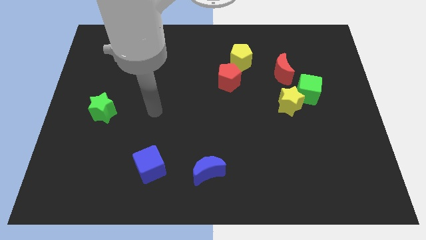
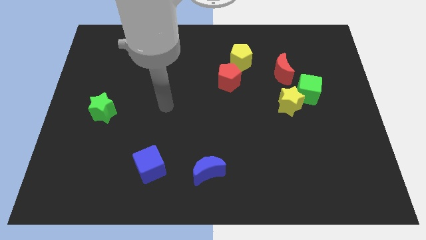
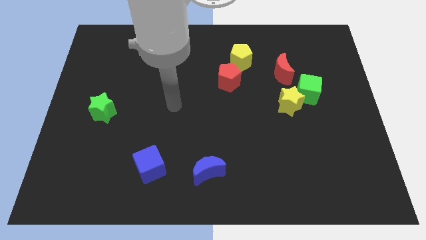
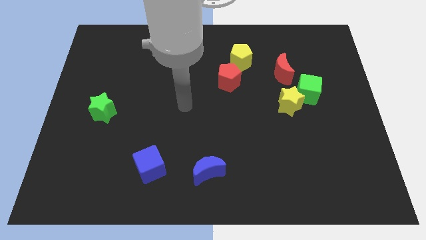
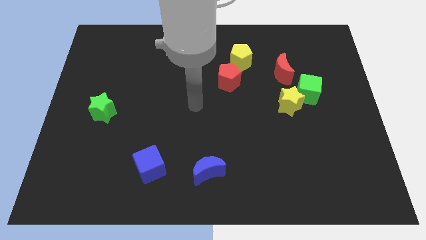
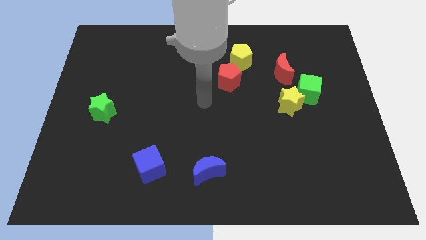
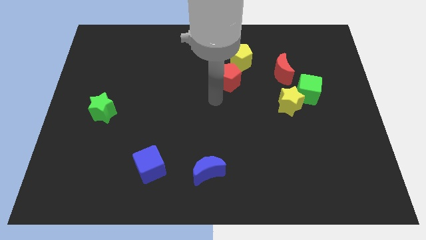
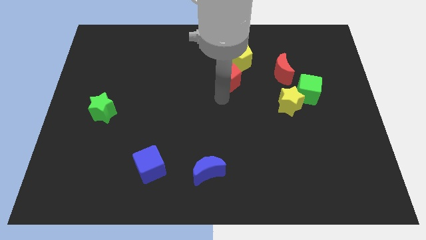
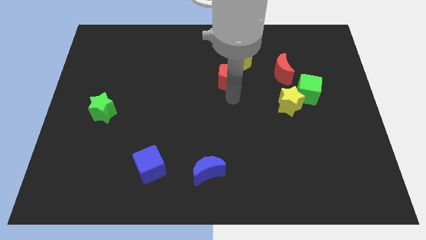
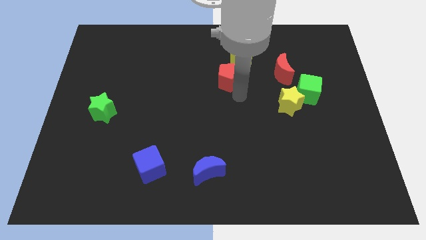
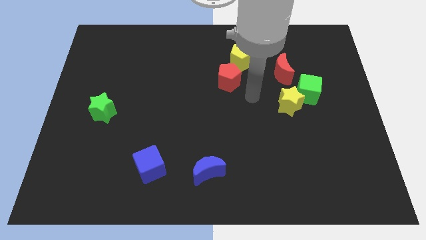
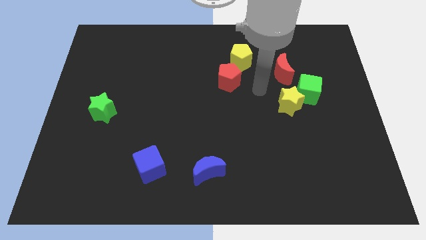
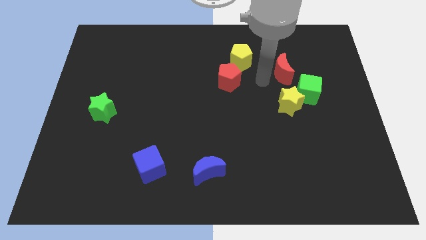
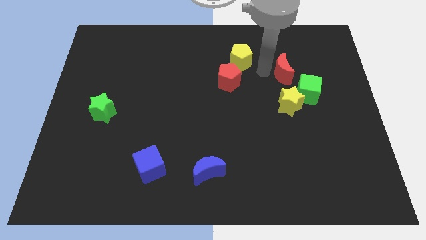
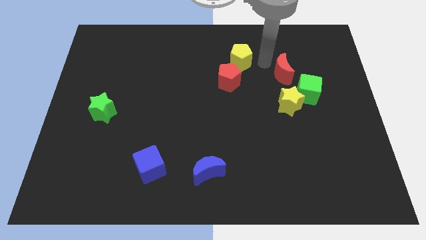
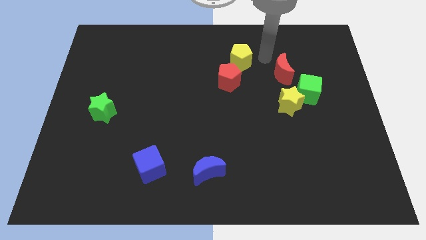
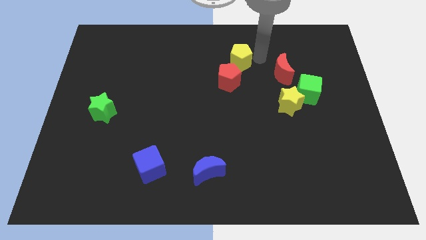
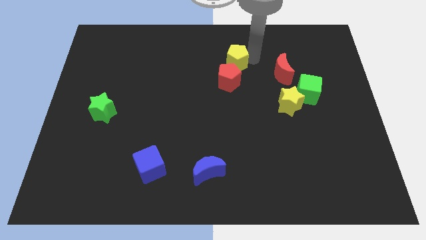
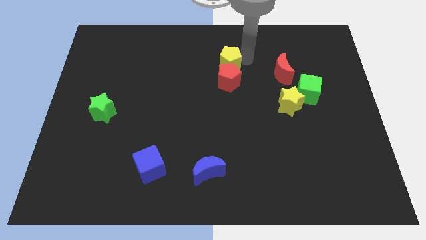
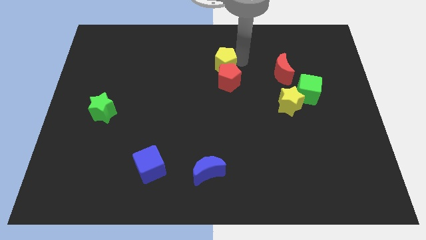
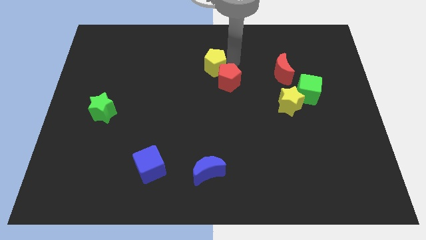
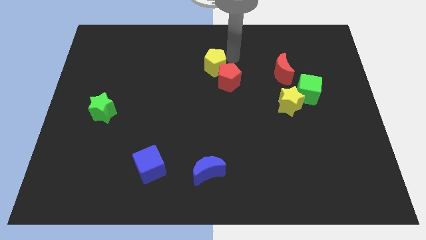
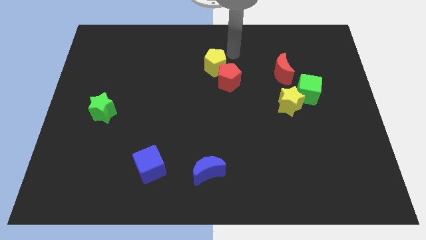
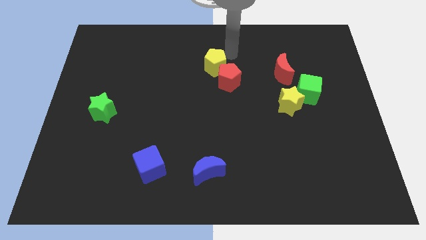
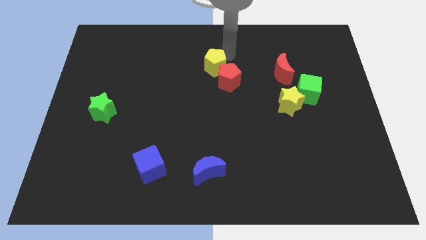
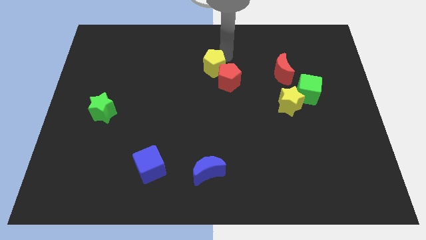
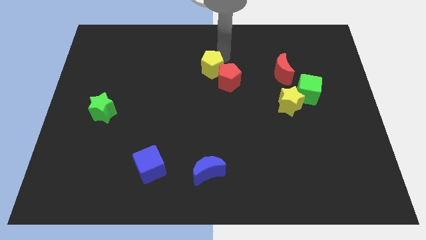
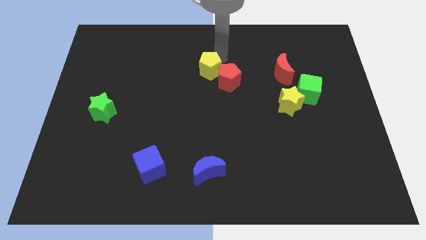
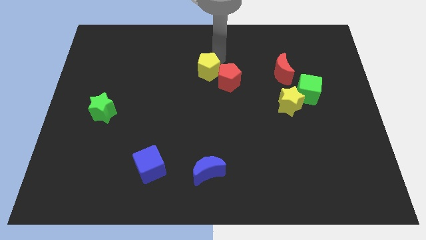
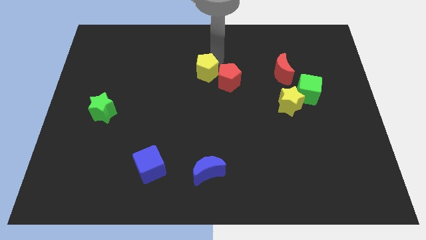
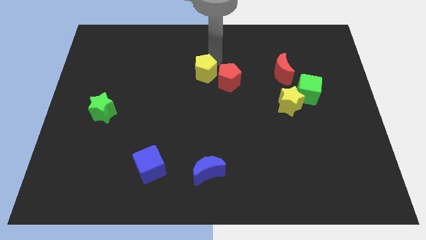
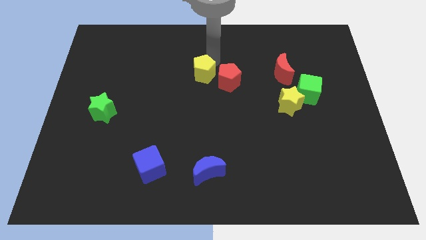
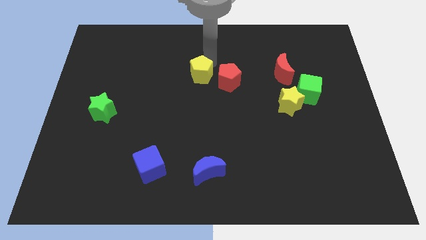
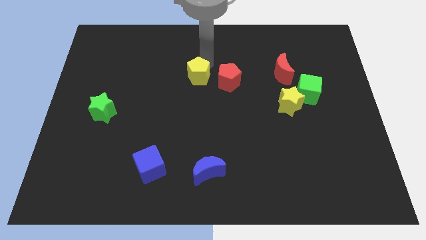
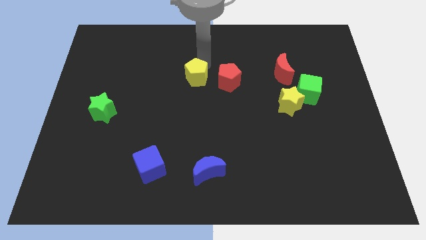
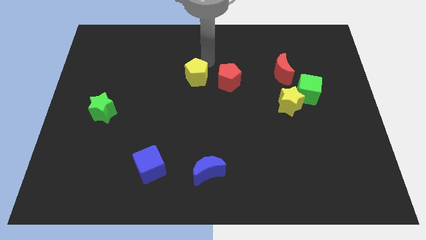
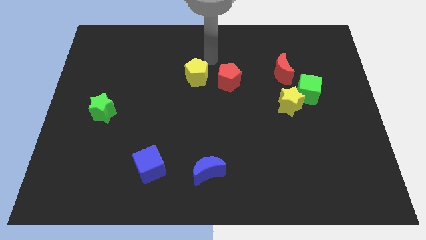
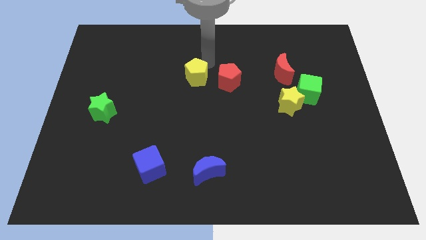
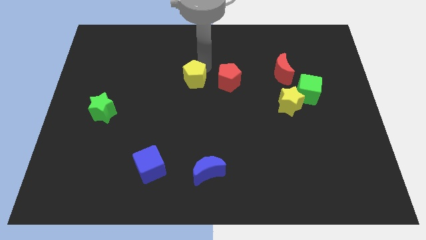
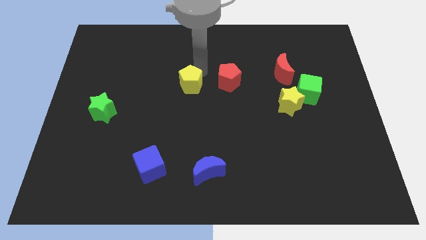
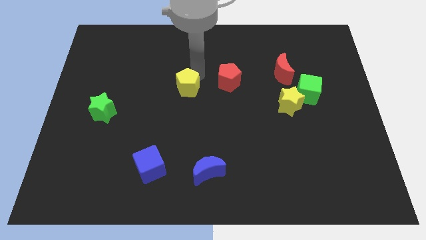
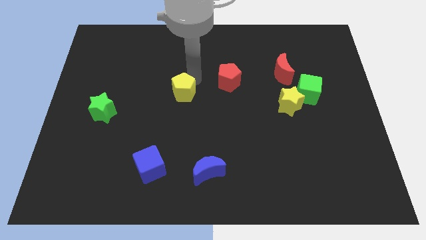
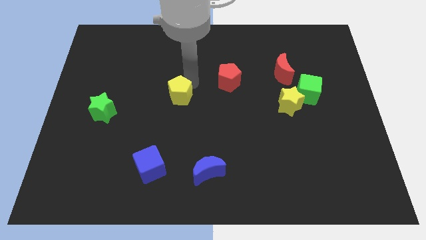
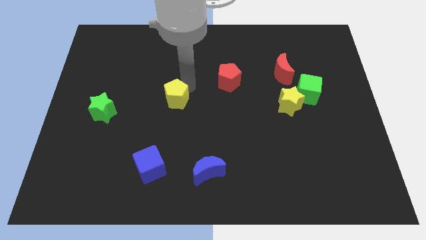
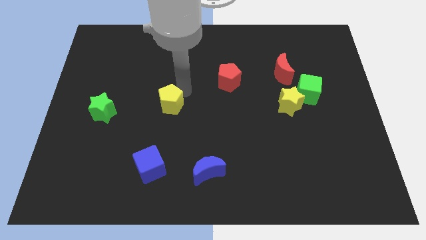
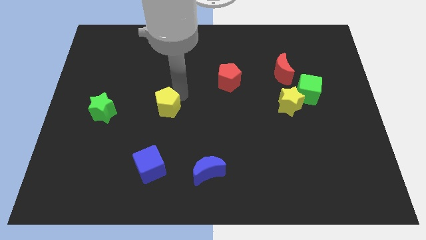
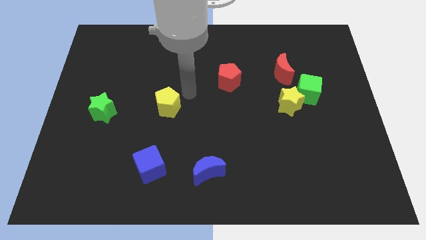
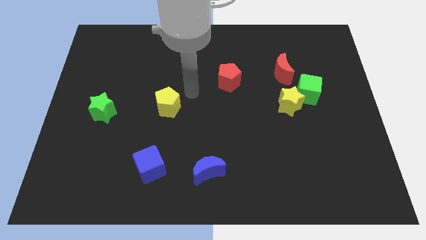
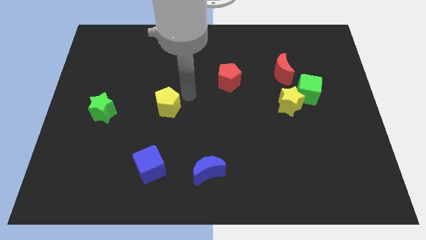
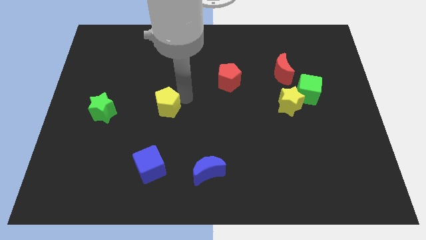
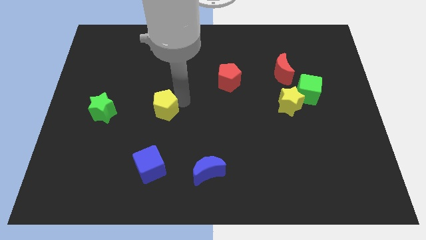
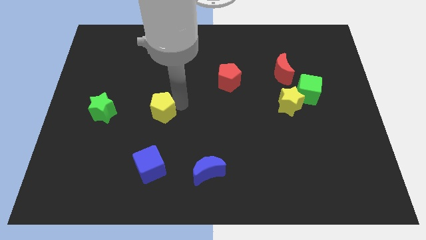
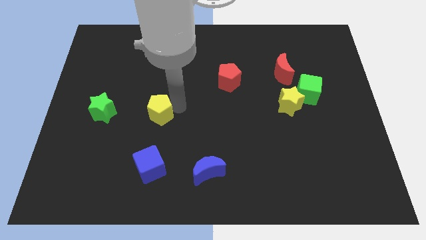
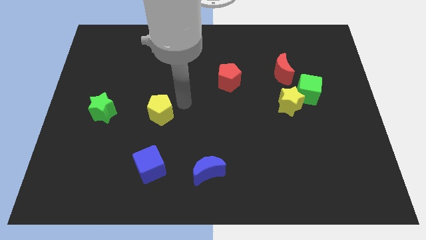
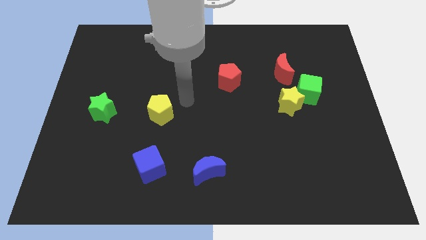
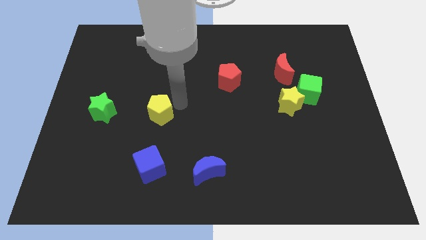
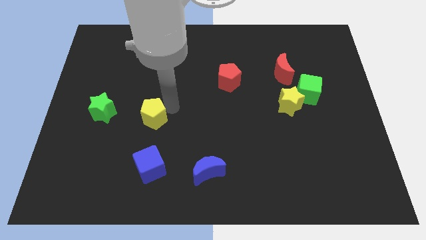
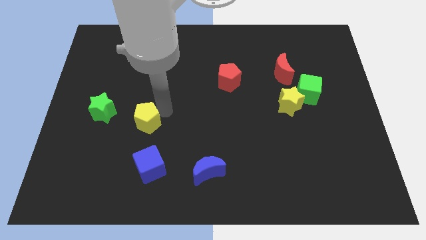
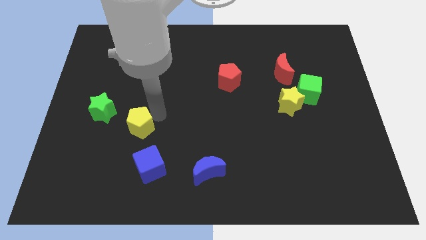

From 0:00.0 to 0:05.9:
slide the yellow pentagon to the bottom right side of the green star

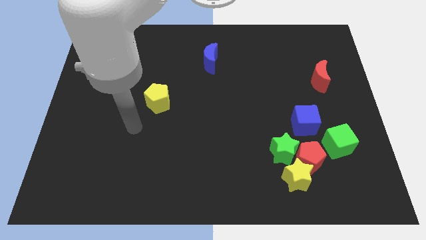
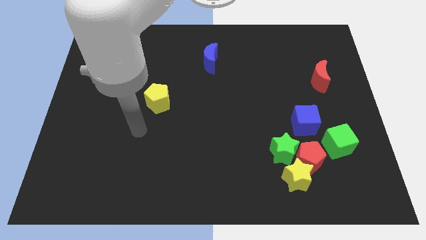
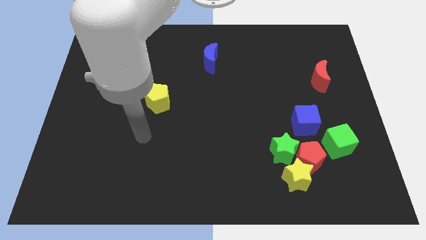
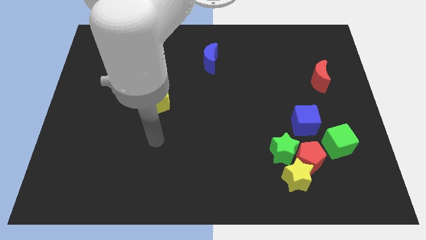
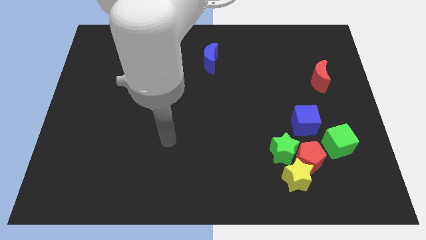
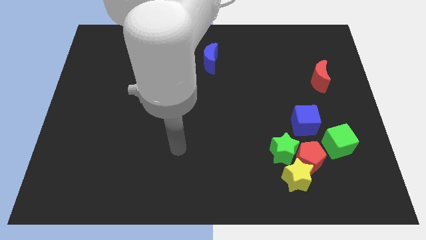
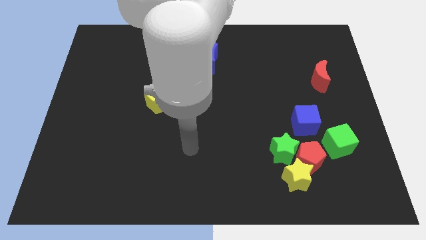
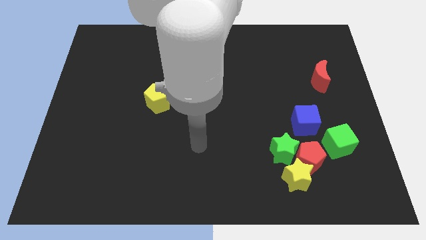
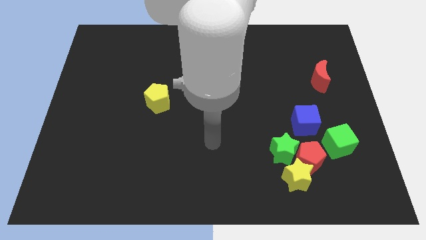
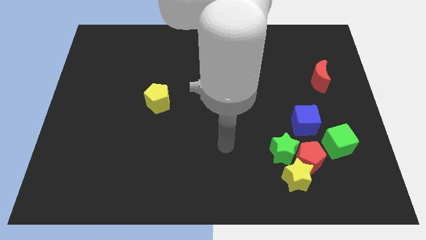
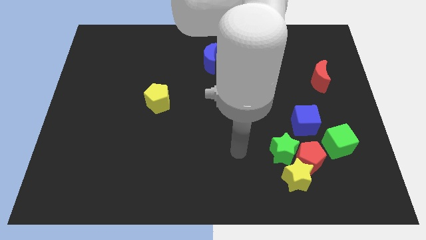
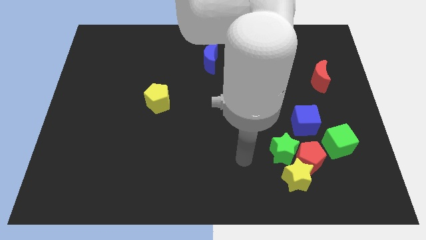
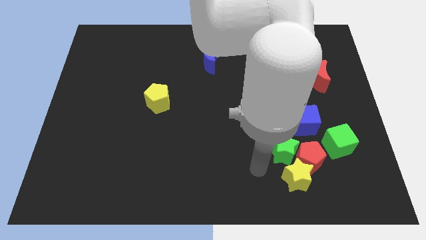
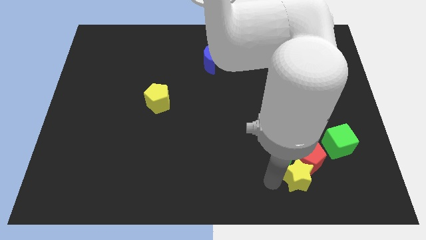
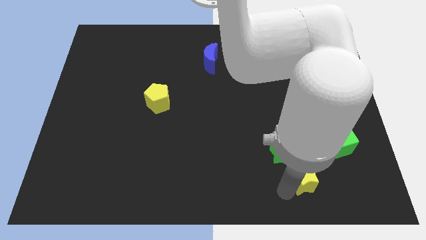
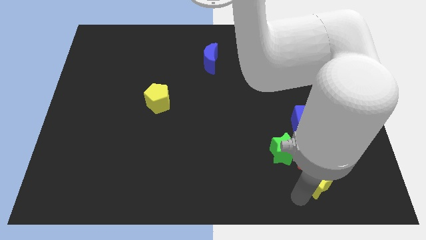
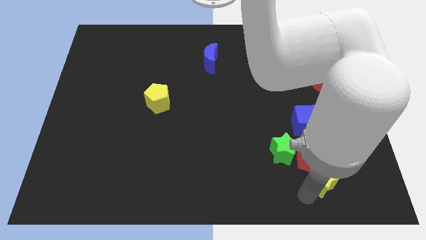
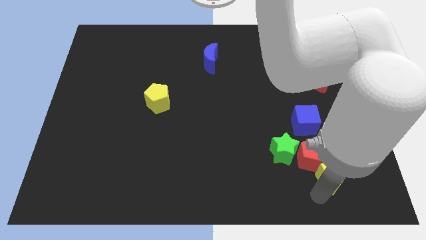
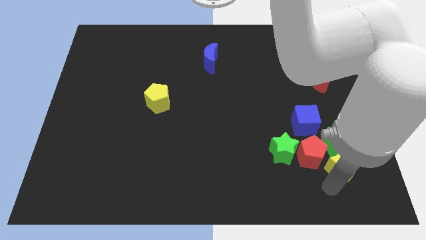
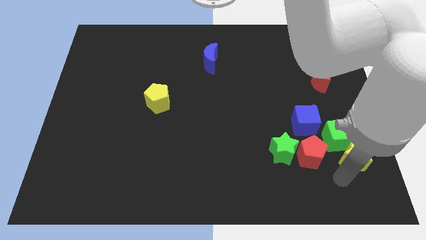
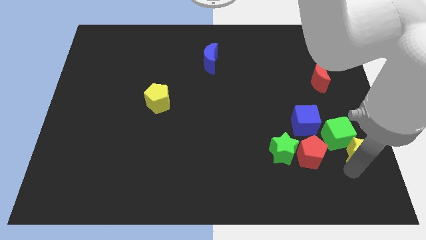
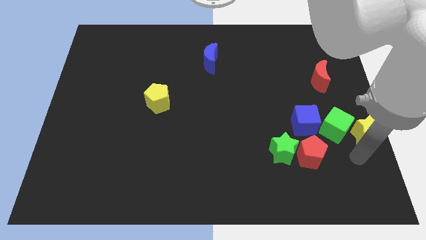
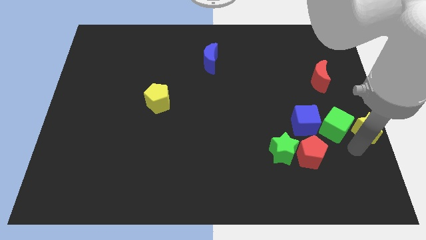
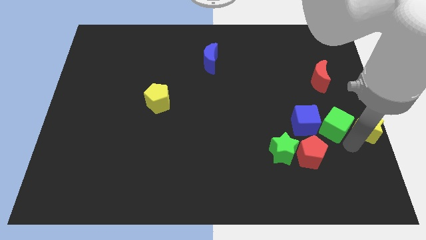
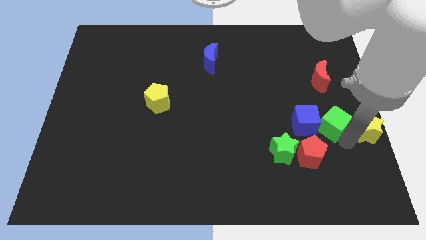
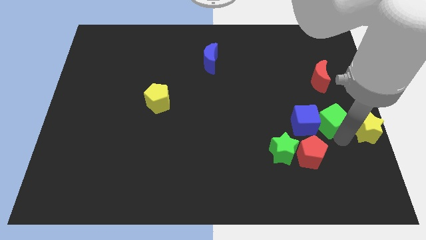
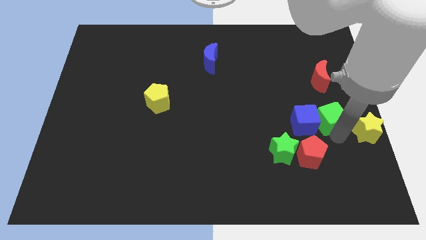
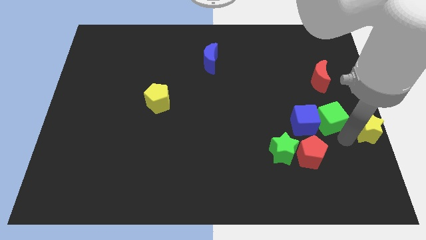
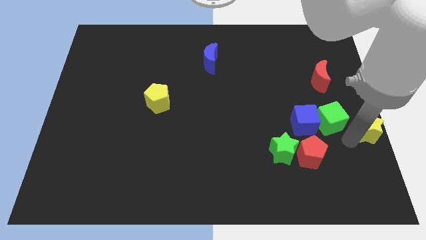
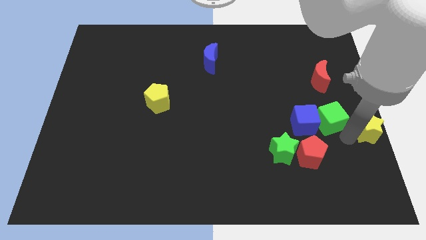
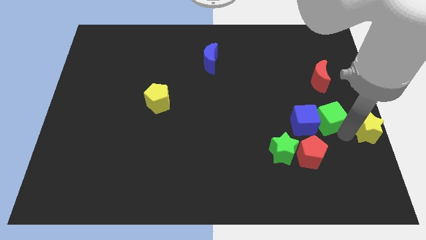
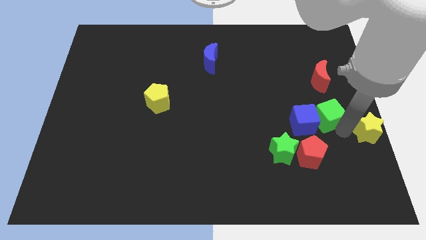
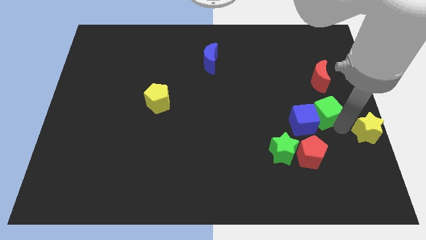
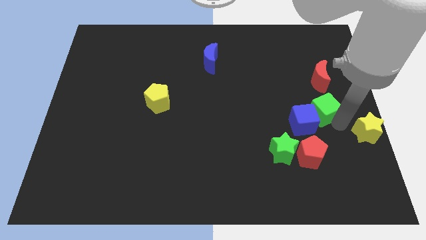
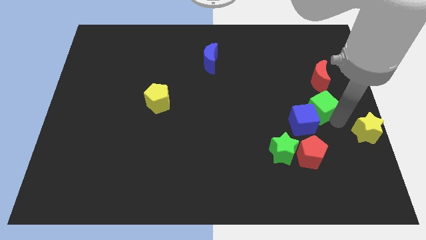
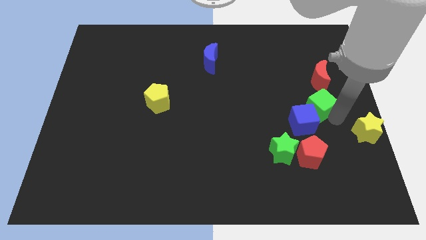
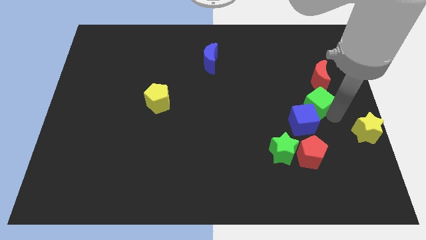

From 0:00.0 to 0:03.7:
push the green cube to the bottom left of the red moon
